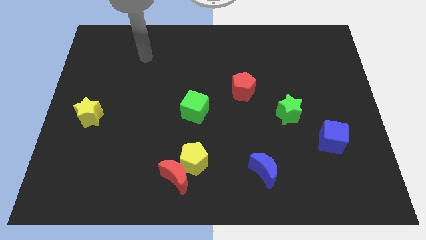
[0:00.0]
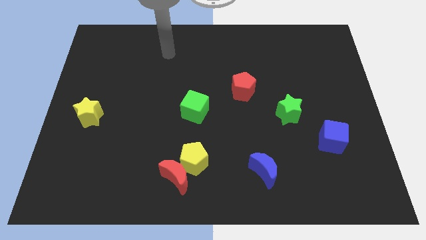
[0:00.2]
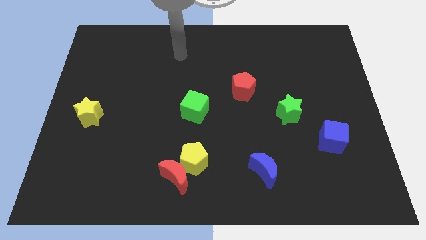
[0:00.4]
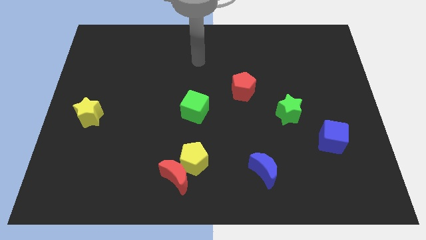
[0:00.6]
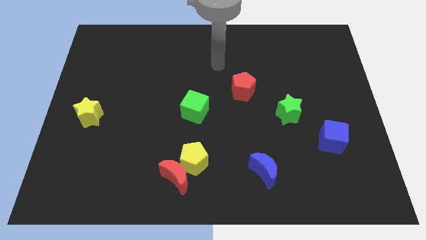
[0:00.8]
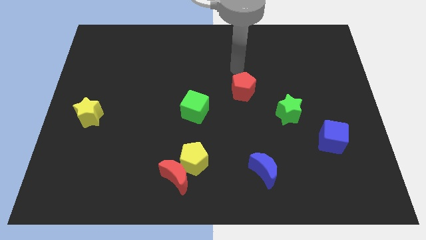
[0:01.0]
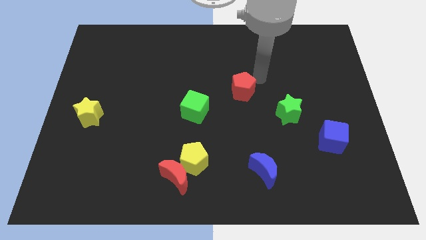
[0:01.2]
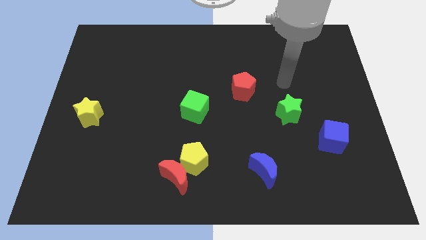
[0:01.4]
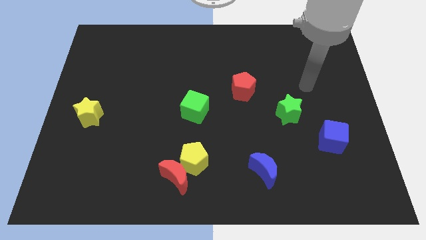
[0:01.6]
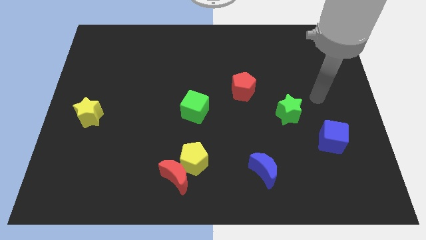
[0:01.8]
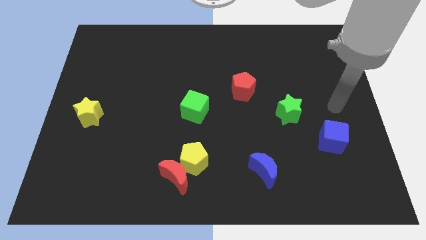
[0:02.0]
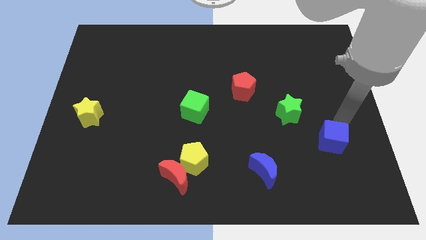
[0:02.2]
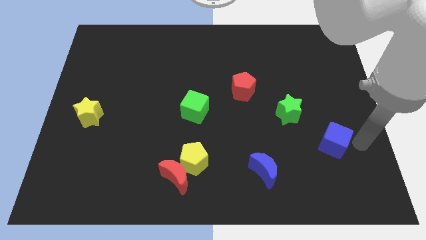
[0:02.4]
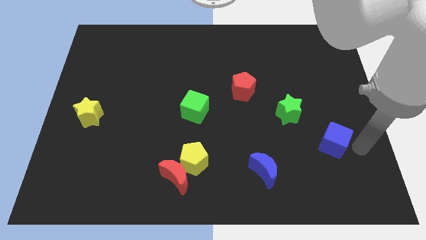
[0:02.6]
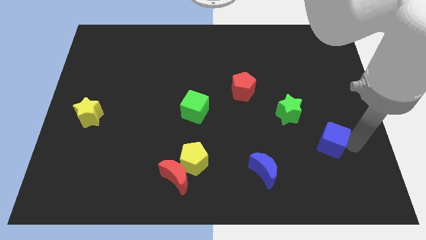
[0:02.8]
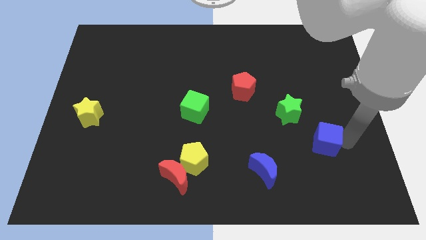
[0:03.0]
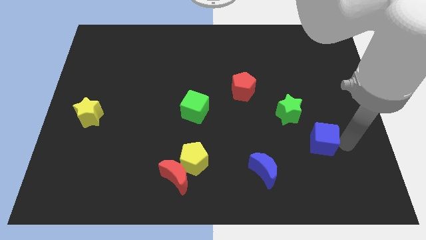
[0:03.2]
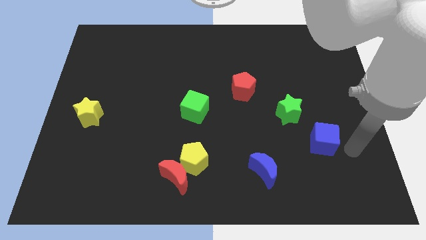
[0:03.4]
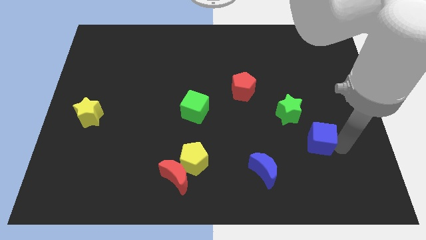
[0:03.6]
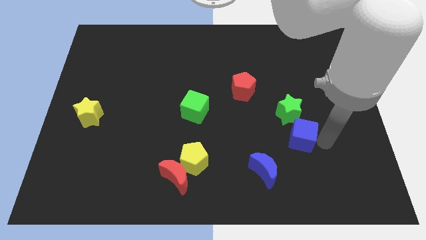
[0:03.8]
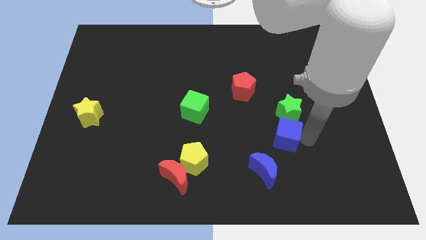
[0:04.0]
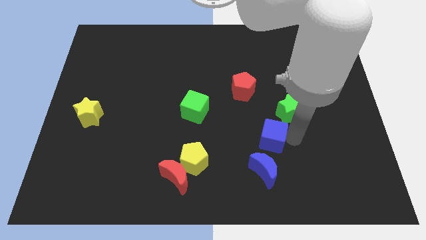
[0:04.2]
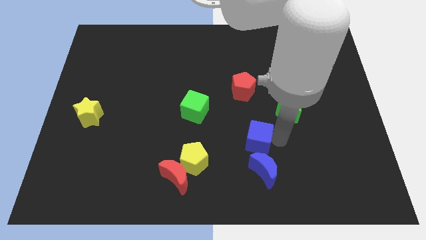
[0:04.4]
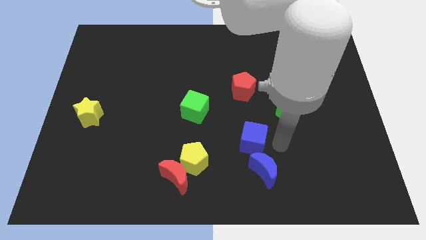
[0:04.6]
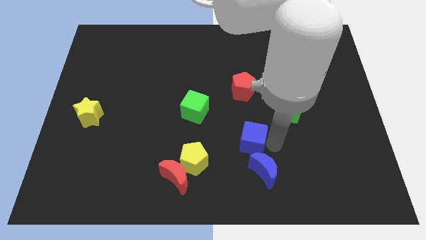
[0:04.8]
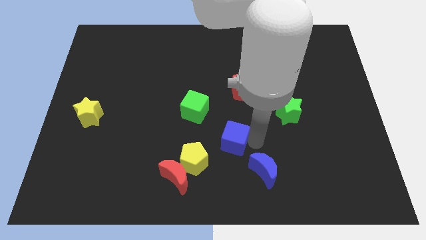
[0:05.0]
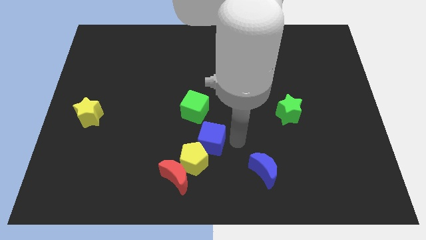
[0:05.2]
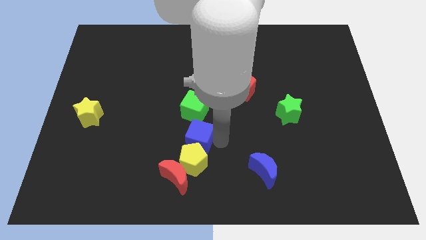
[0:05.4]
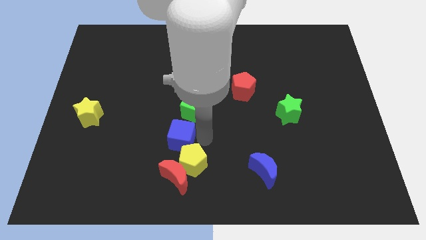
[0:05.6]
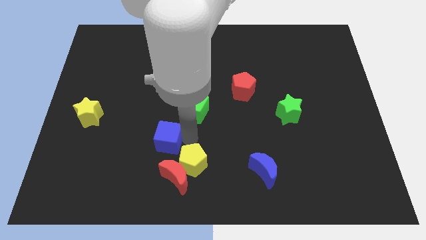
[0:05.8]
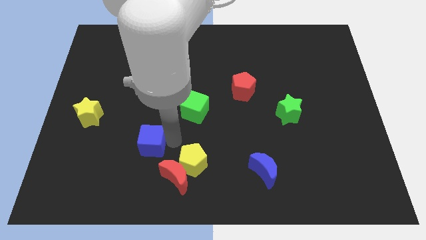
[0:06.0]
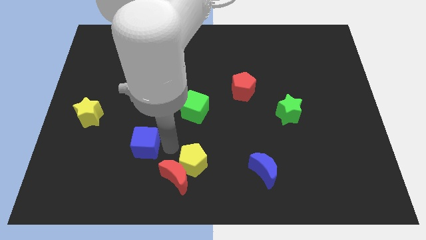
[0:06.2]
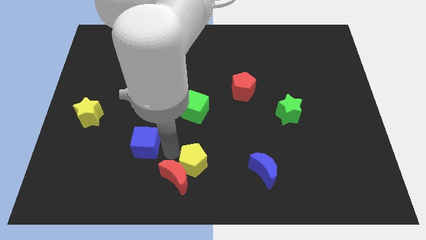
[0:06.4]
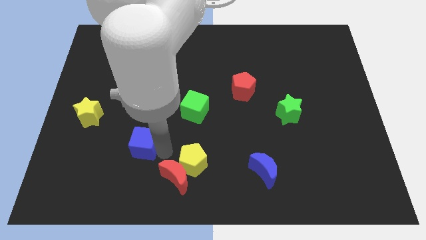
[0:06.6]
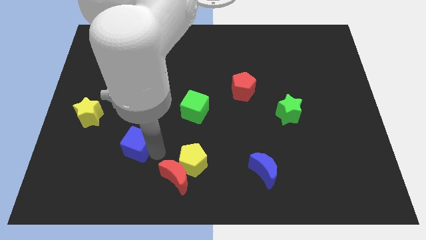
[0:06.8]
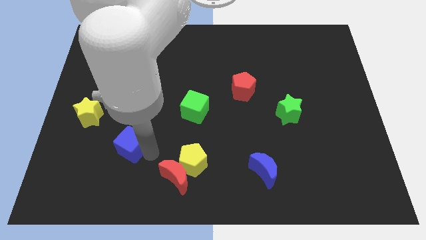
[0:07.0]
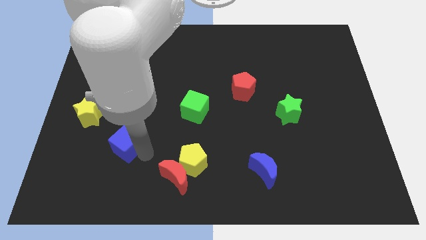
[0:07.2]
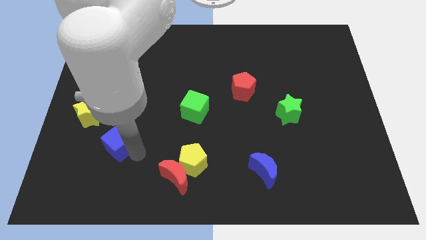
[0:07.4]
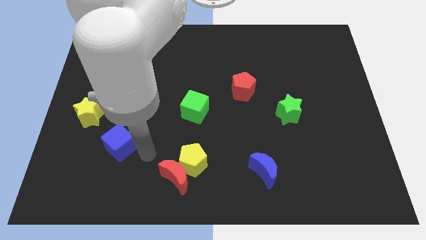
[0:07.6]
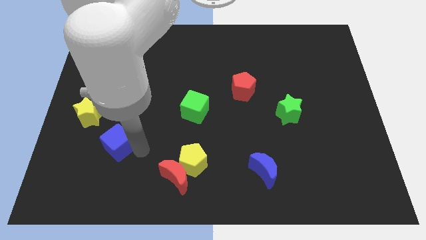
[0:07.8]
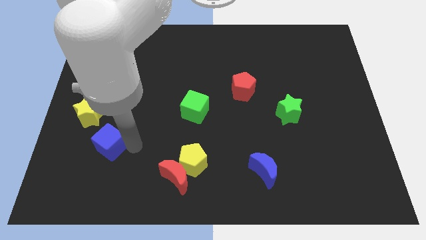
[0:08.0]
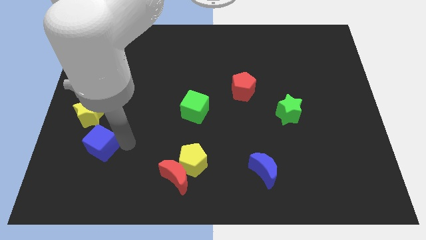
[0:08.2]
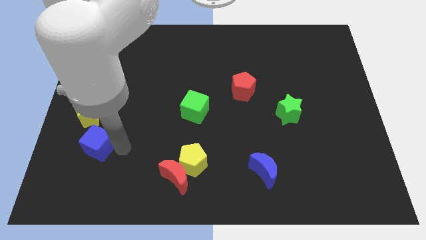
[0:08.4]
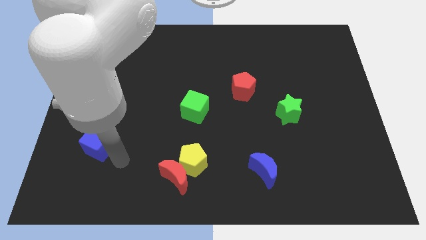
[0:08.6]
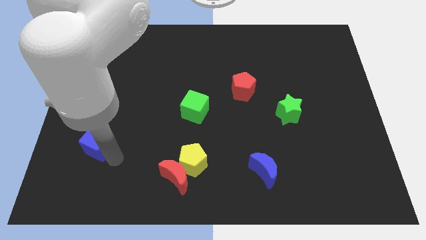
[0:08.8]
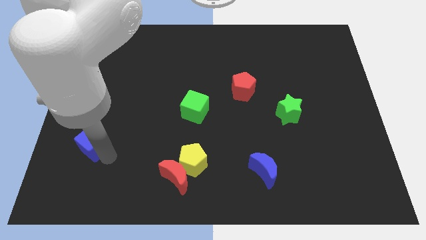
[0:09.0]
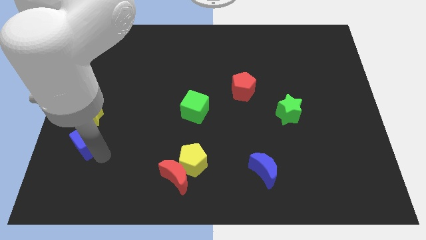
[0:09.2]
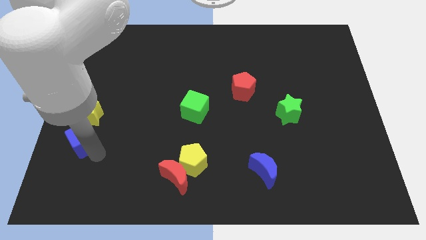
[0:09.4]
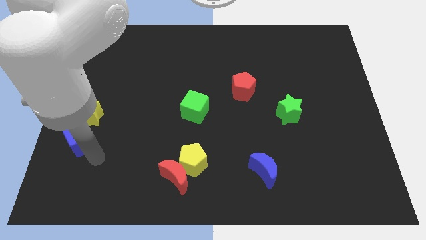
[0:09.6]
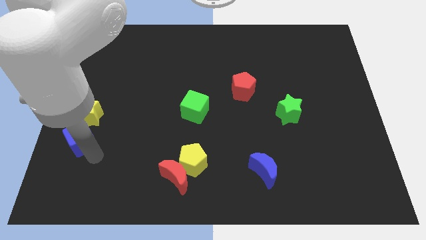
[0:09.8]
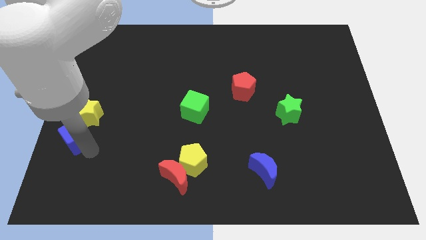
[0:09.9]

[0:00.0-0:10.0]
push the blue cube to the left side
